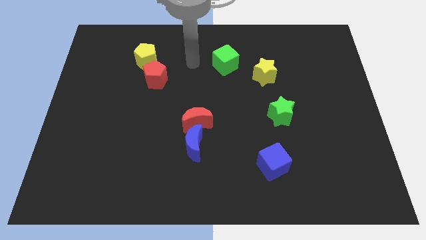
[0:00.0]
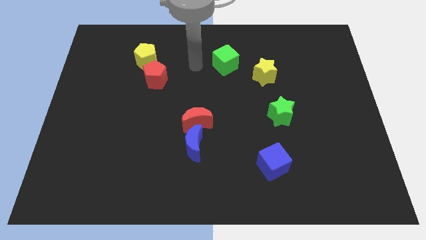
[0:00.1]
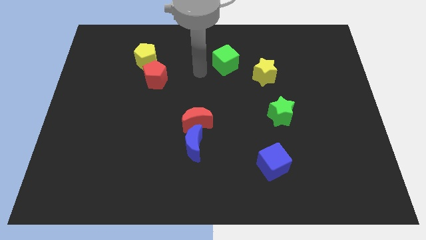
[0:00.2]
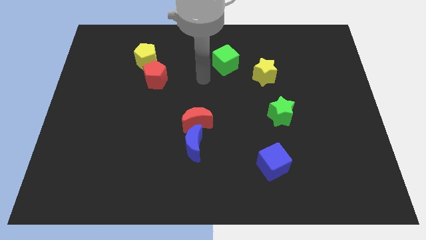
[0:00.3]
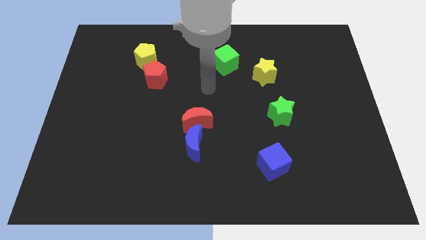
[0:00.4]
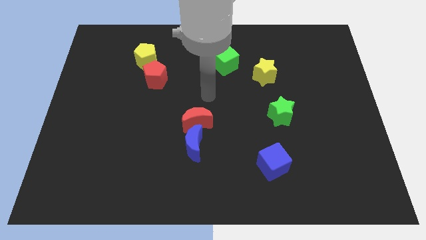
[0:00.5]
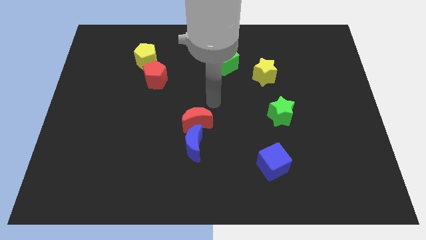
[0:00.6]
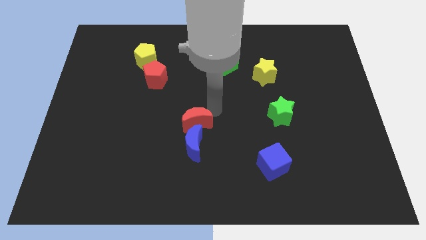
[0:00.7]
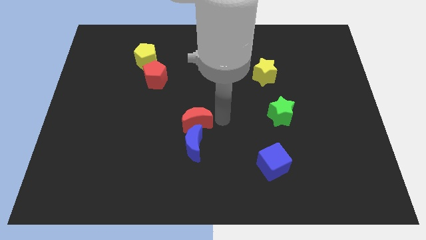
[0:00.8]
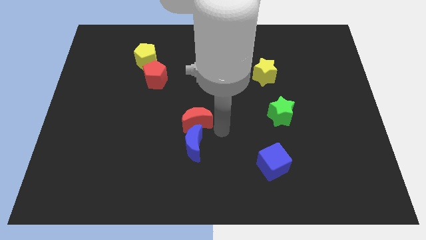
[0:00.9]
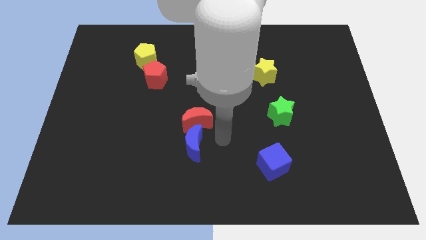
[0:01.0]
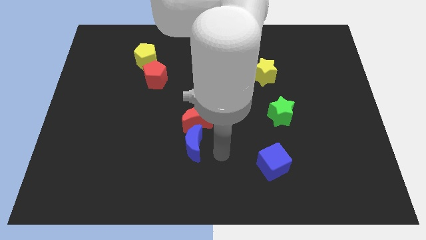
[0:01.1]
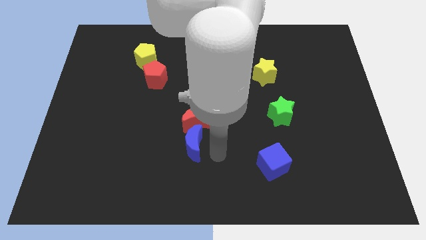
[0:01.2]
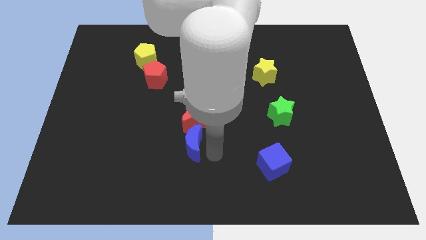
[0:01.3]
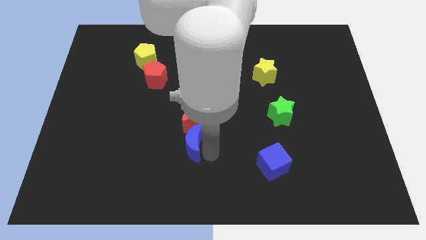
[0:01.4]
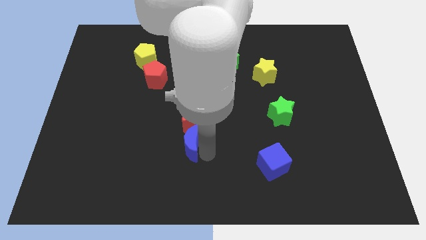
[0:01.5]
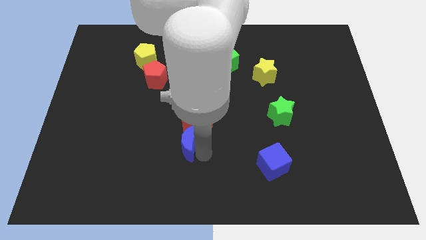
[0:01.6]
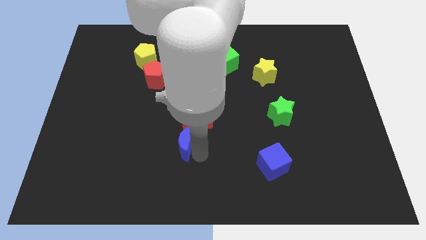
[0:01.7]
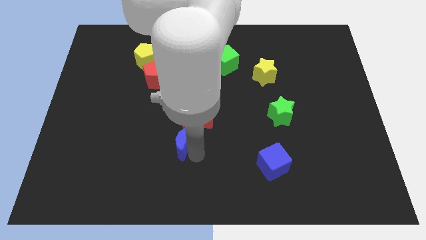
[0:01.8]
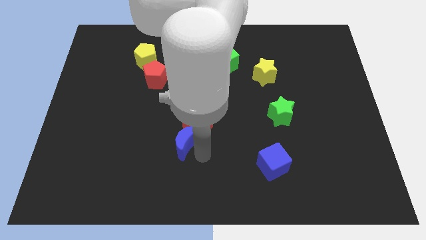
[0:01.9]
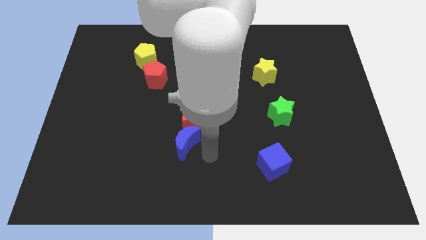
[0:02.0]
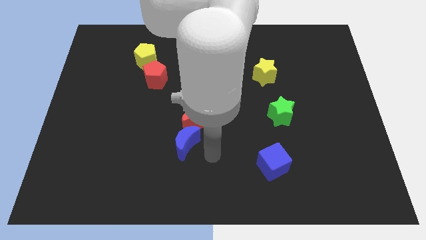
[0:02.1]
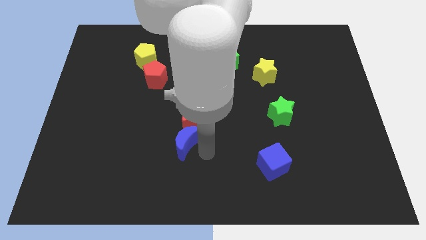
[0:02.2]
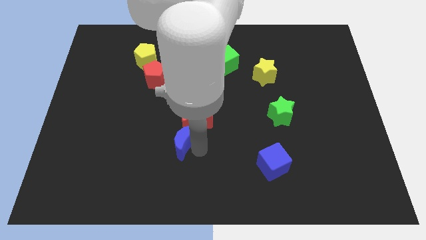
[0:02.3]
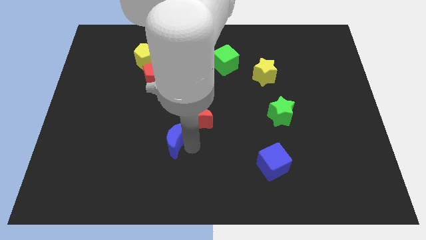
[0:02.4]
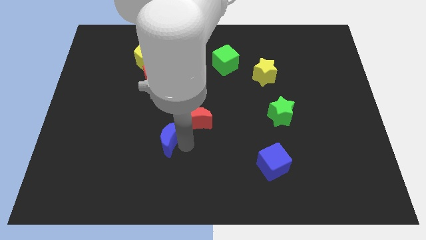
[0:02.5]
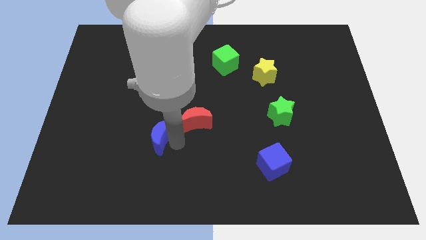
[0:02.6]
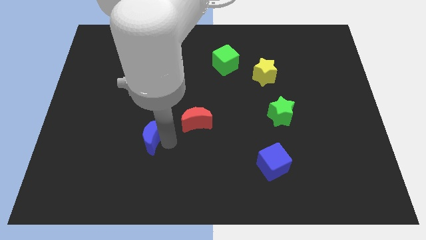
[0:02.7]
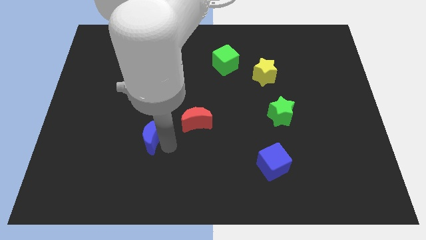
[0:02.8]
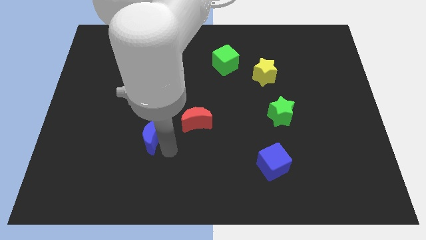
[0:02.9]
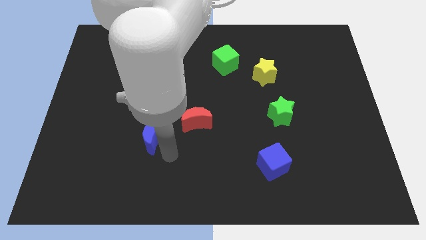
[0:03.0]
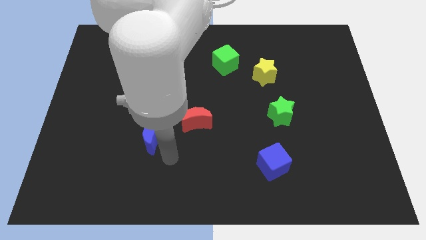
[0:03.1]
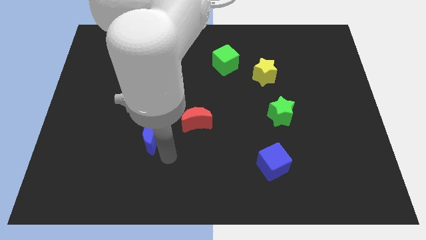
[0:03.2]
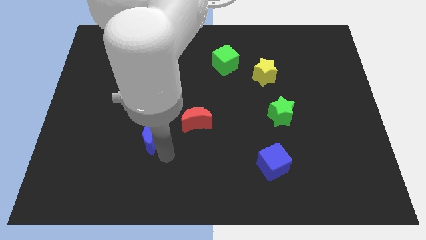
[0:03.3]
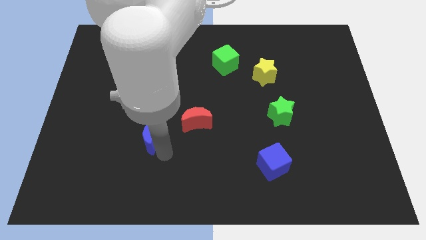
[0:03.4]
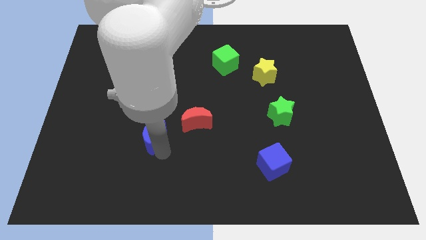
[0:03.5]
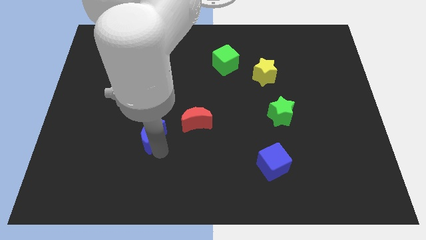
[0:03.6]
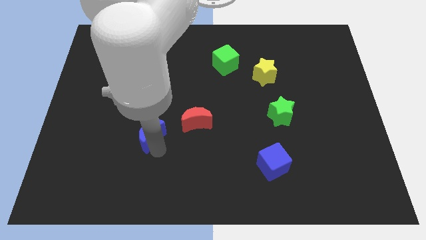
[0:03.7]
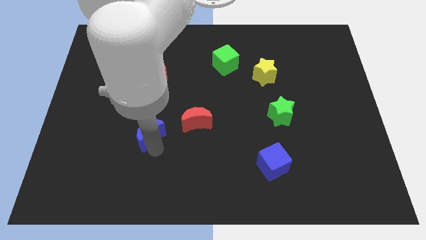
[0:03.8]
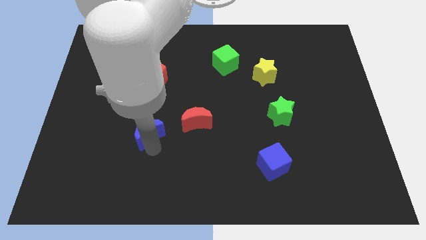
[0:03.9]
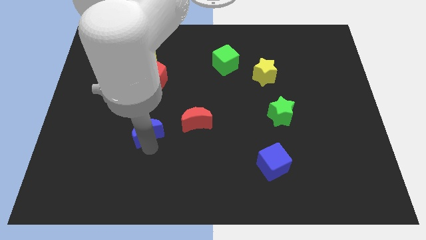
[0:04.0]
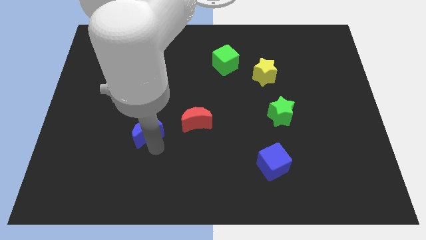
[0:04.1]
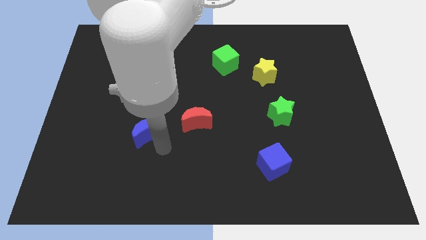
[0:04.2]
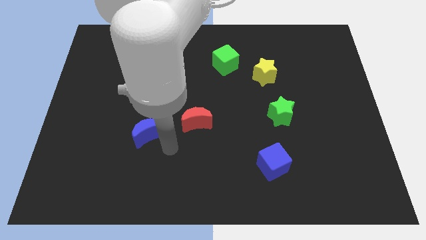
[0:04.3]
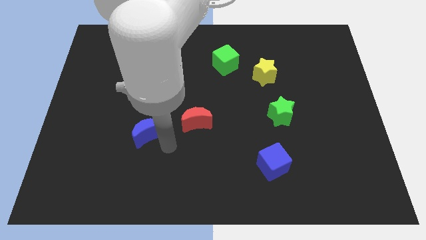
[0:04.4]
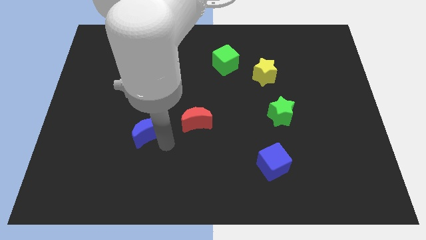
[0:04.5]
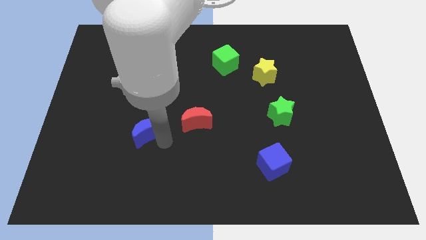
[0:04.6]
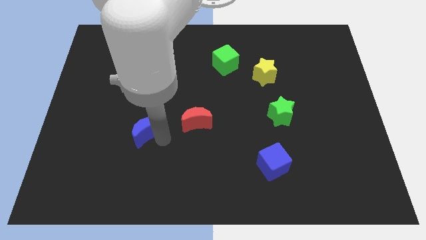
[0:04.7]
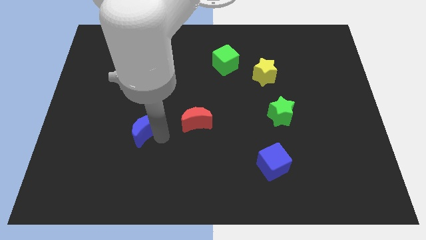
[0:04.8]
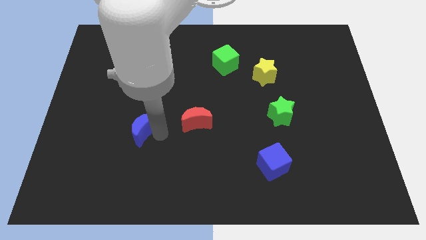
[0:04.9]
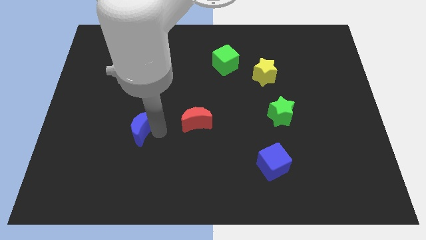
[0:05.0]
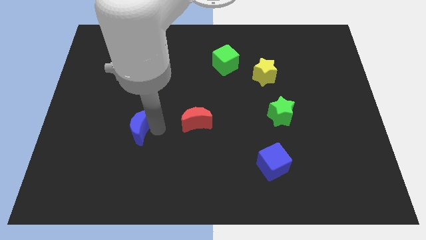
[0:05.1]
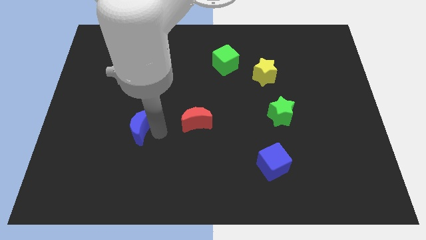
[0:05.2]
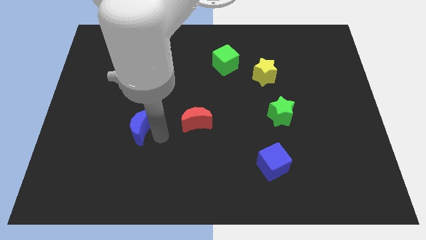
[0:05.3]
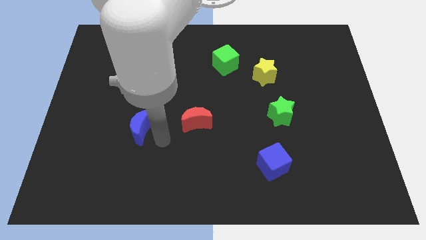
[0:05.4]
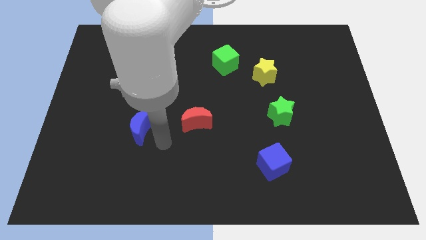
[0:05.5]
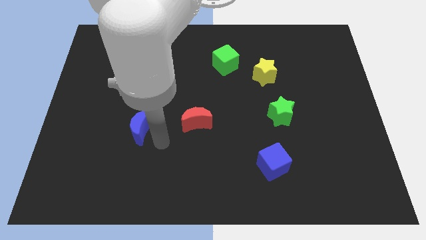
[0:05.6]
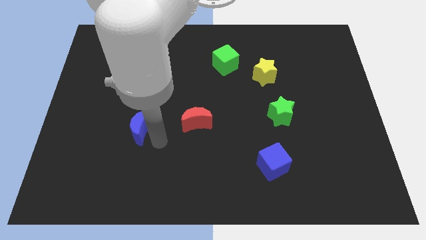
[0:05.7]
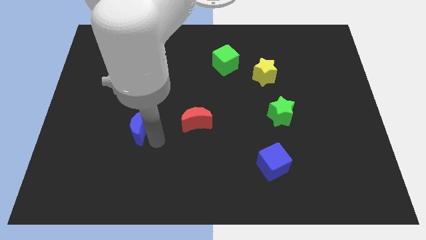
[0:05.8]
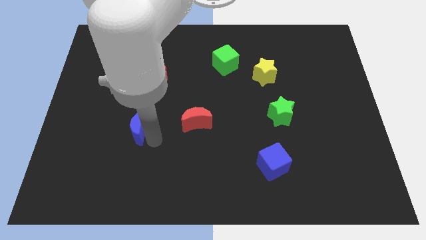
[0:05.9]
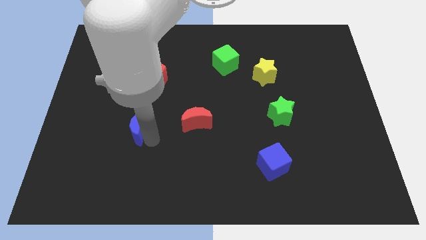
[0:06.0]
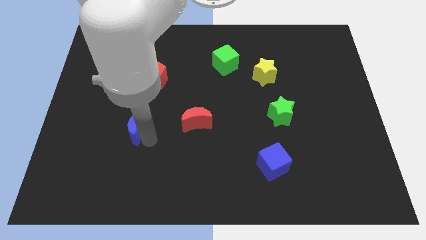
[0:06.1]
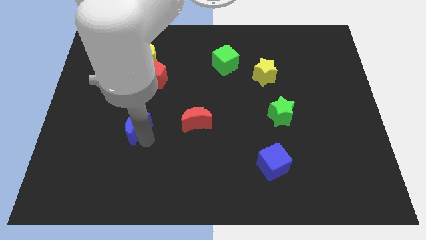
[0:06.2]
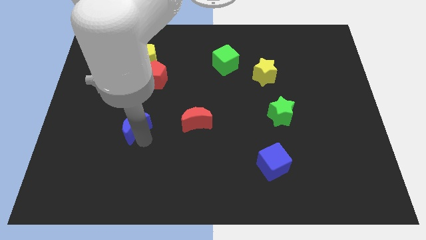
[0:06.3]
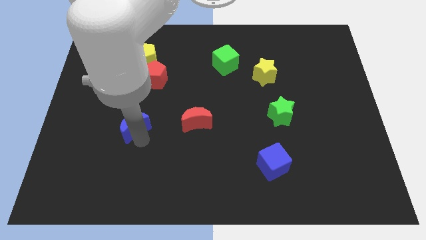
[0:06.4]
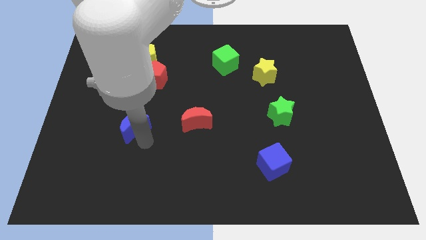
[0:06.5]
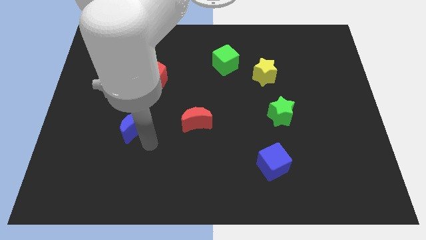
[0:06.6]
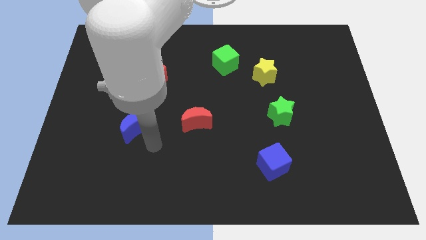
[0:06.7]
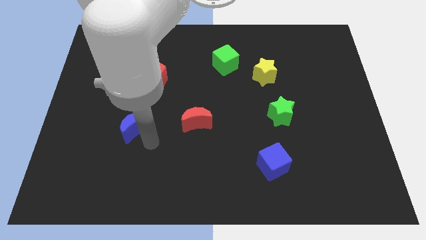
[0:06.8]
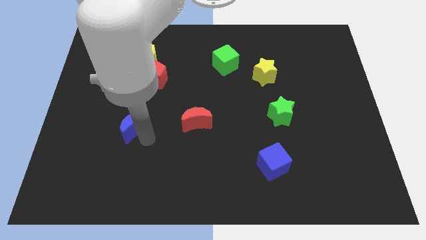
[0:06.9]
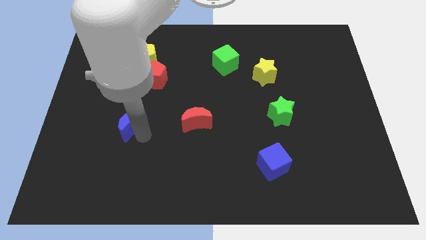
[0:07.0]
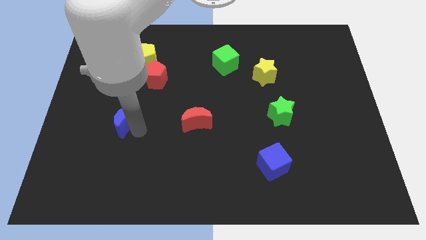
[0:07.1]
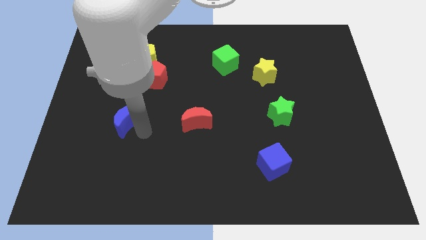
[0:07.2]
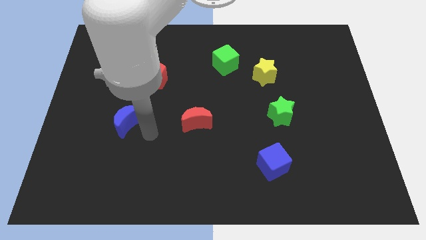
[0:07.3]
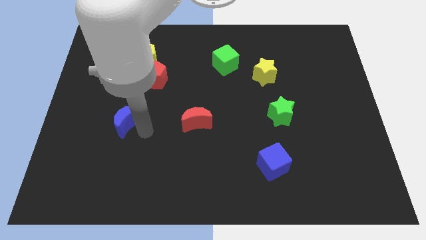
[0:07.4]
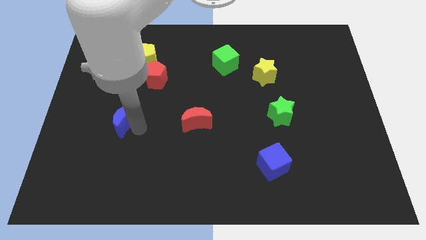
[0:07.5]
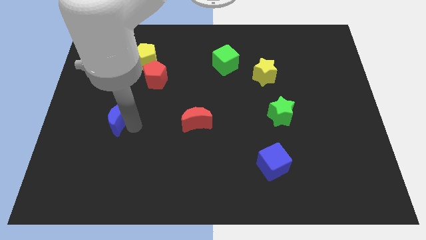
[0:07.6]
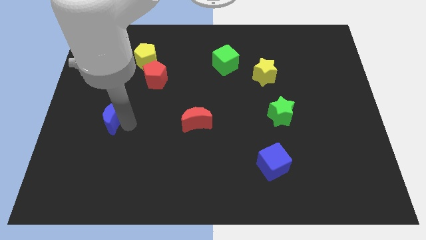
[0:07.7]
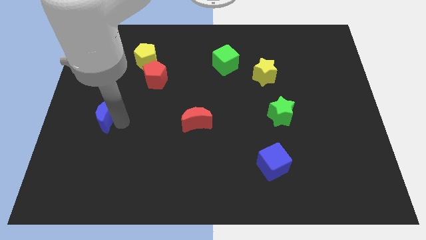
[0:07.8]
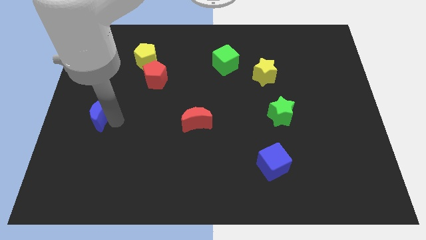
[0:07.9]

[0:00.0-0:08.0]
slide the blue moon to the center left
